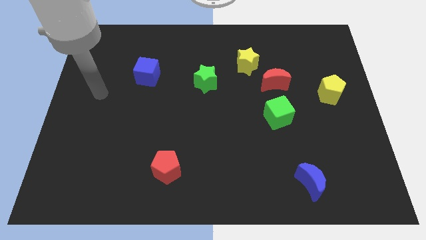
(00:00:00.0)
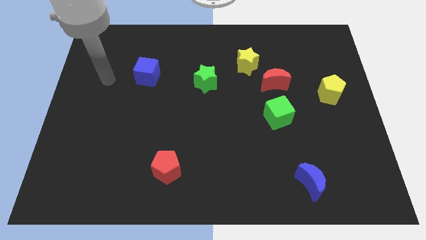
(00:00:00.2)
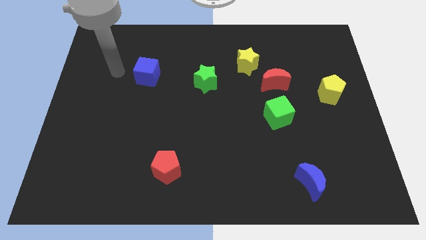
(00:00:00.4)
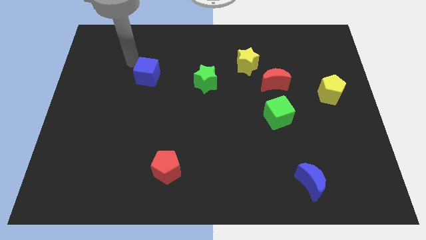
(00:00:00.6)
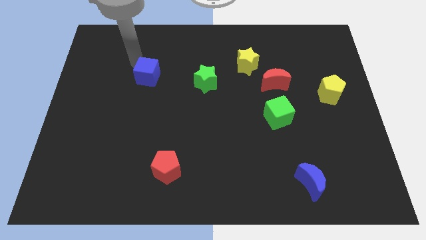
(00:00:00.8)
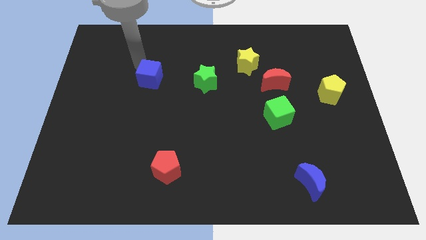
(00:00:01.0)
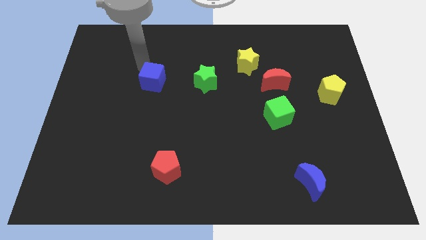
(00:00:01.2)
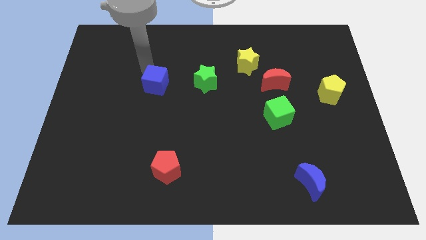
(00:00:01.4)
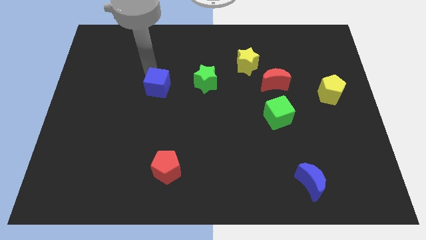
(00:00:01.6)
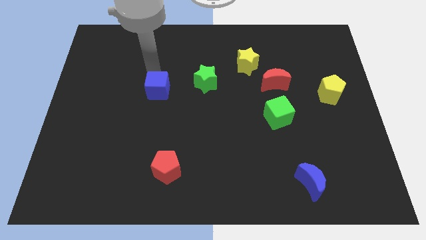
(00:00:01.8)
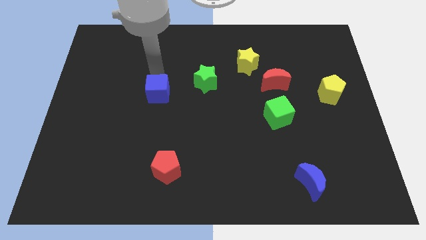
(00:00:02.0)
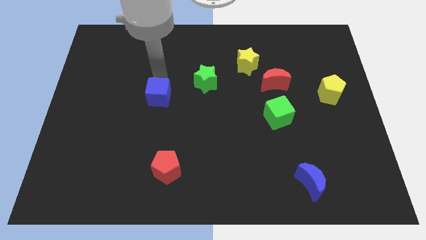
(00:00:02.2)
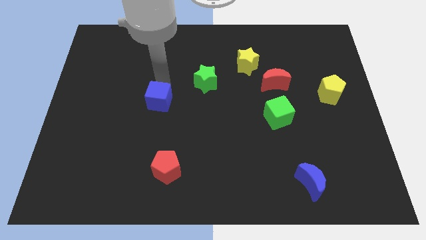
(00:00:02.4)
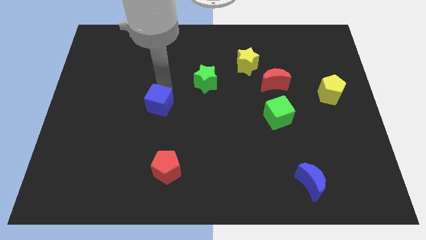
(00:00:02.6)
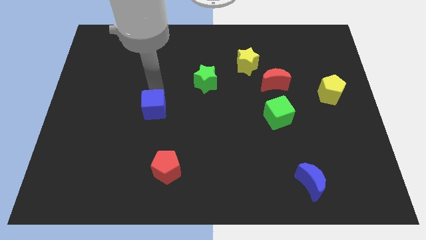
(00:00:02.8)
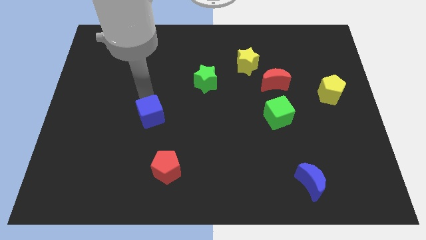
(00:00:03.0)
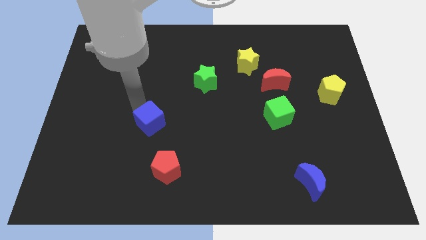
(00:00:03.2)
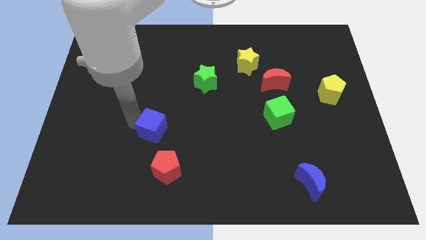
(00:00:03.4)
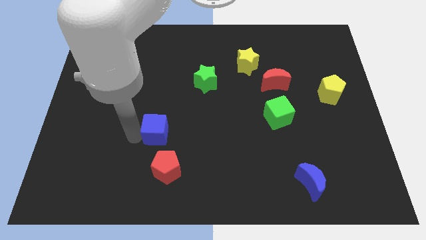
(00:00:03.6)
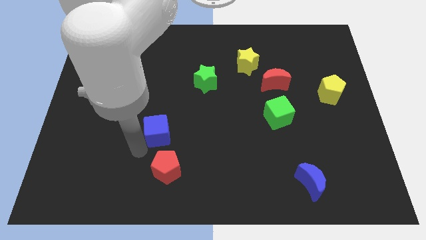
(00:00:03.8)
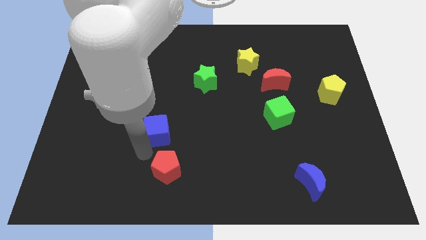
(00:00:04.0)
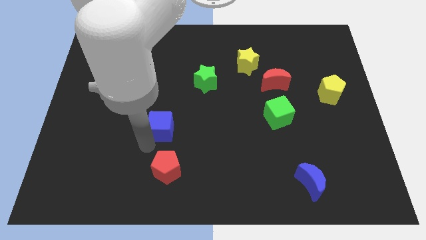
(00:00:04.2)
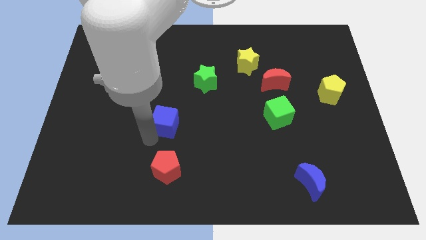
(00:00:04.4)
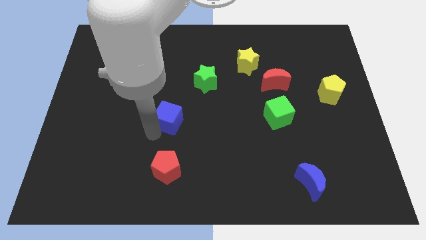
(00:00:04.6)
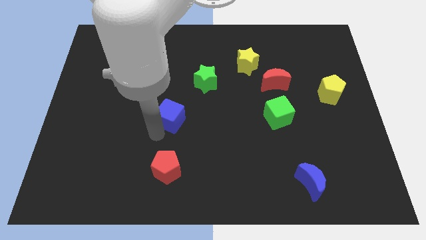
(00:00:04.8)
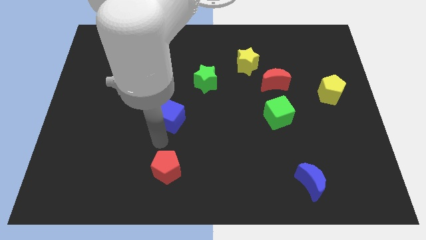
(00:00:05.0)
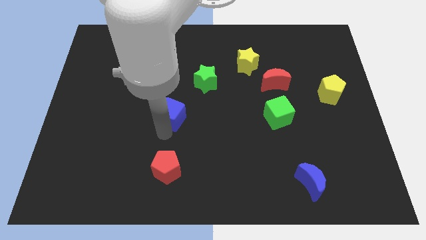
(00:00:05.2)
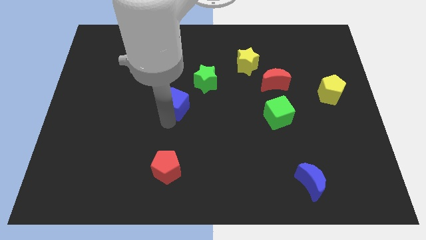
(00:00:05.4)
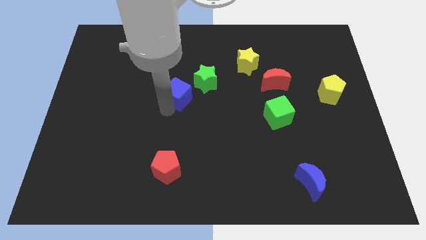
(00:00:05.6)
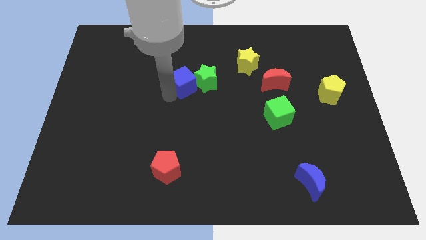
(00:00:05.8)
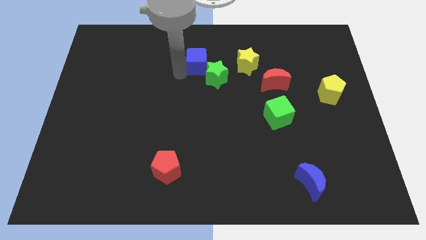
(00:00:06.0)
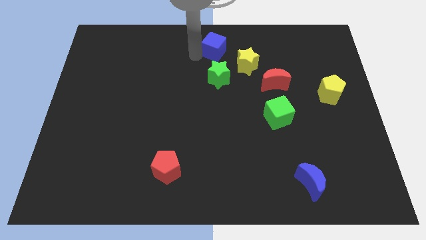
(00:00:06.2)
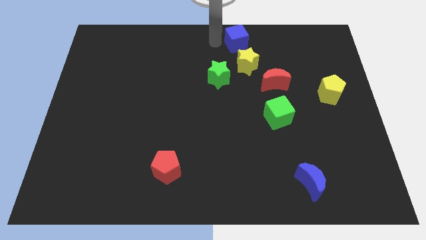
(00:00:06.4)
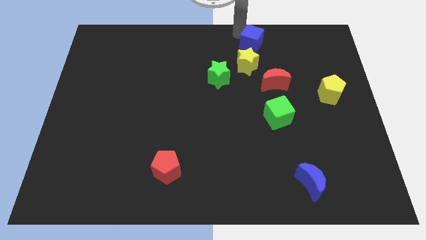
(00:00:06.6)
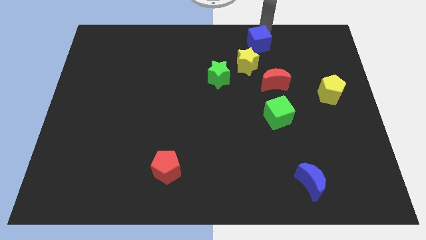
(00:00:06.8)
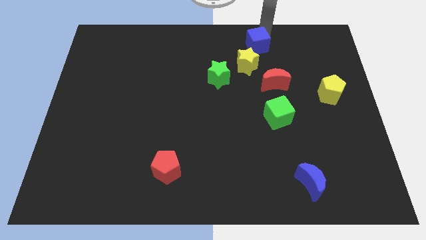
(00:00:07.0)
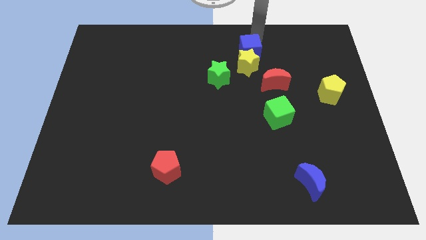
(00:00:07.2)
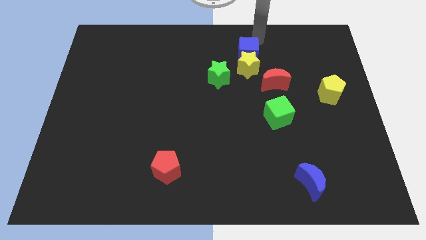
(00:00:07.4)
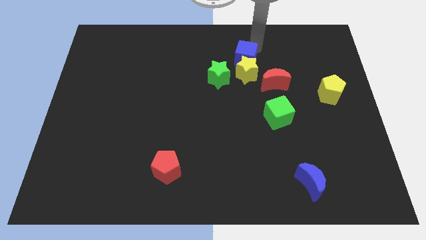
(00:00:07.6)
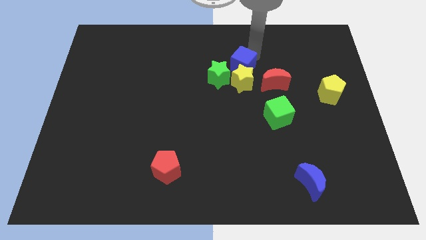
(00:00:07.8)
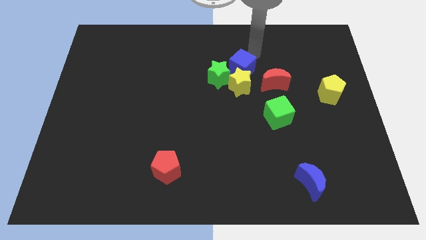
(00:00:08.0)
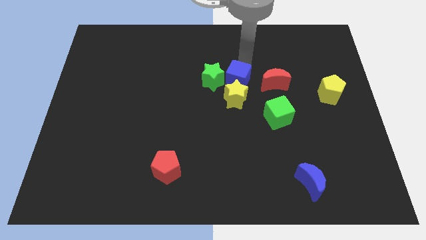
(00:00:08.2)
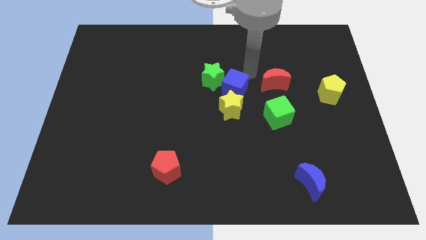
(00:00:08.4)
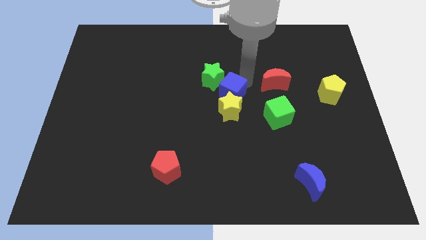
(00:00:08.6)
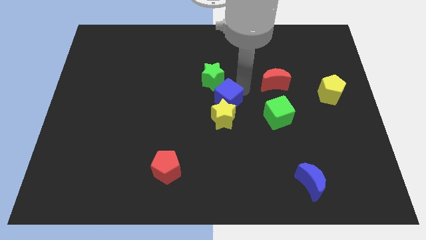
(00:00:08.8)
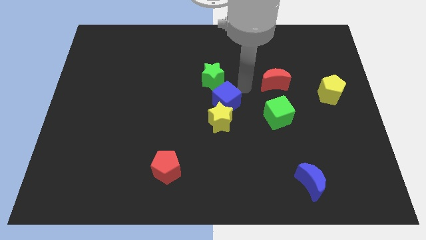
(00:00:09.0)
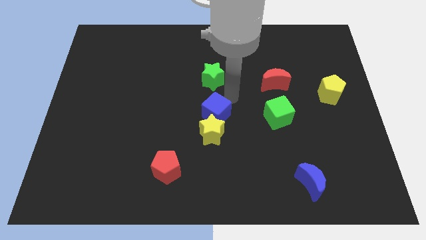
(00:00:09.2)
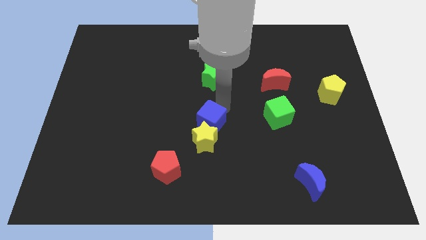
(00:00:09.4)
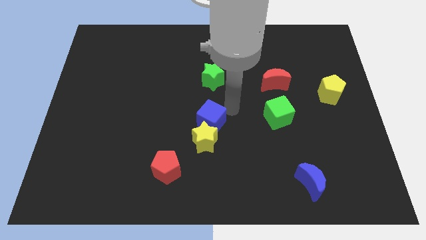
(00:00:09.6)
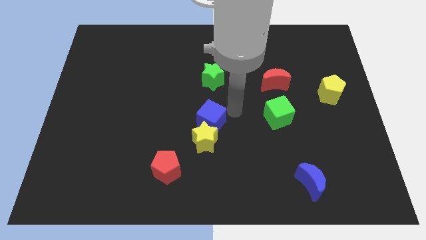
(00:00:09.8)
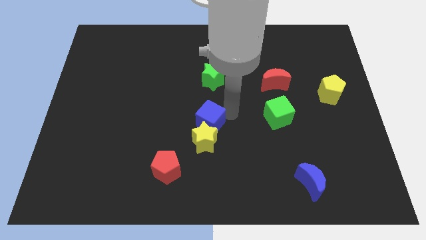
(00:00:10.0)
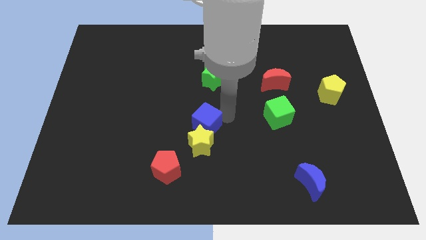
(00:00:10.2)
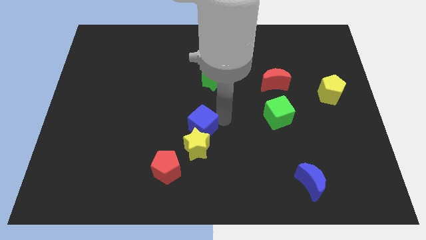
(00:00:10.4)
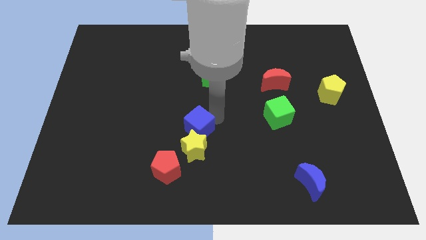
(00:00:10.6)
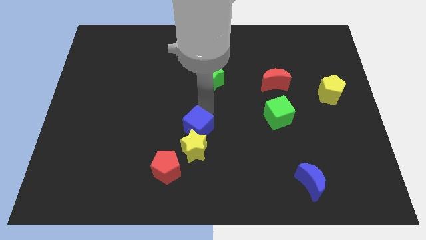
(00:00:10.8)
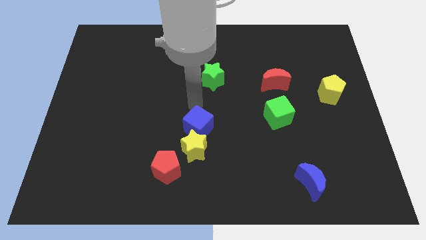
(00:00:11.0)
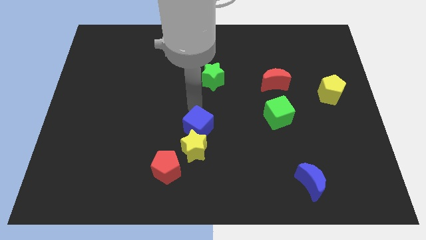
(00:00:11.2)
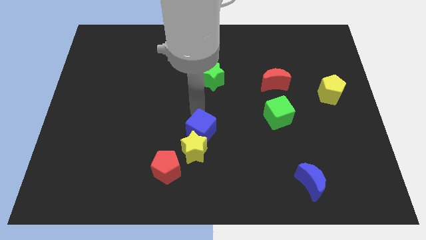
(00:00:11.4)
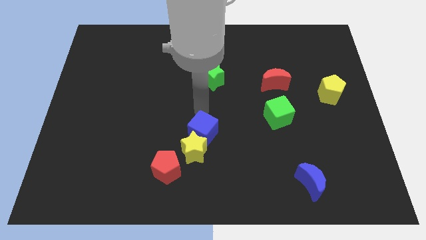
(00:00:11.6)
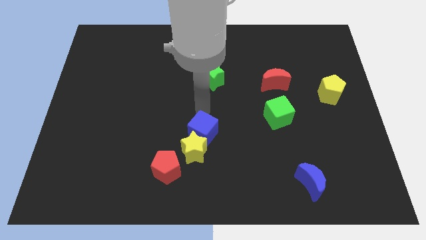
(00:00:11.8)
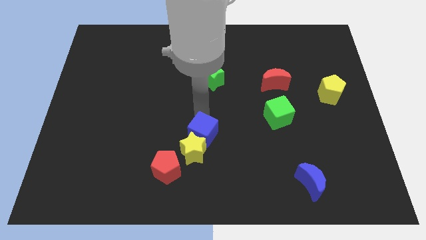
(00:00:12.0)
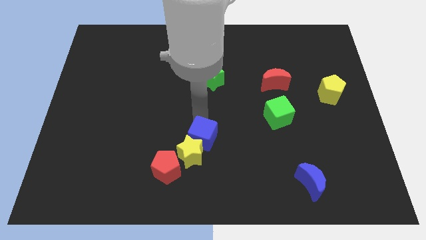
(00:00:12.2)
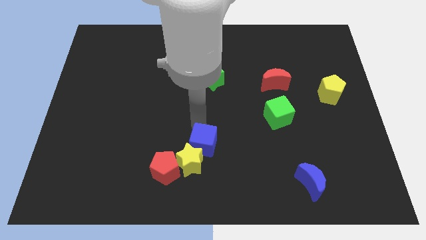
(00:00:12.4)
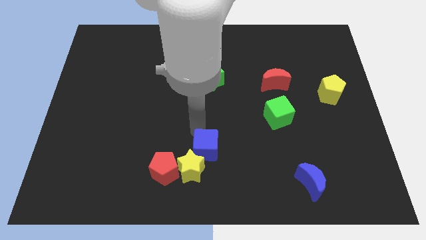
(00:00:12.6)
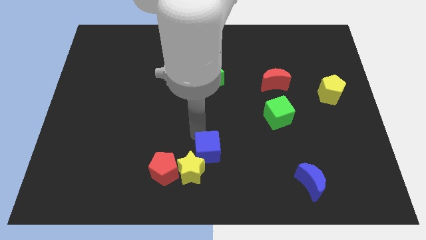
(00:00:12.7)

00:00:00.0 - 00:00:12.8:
push the blue cube just right of the red pentagon

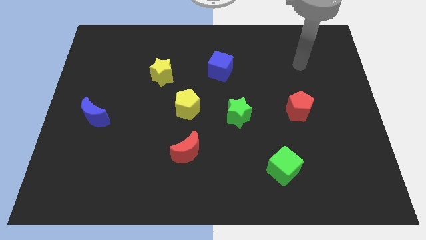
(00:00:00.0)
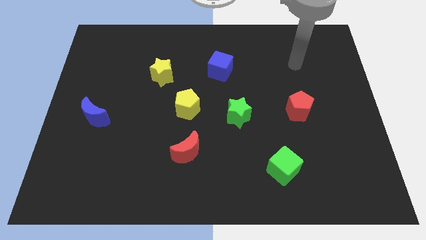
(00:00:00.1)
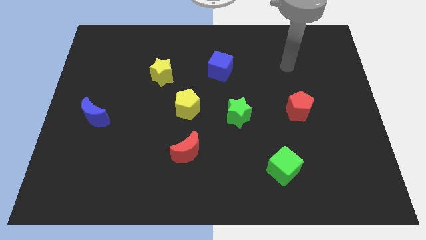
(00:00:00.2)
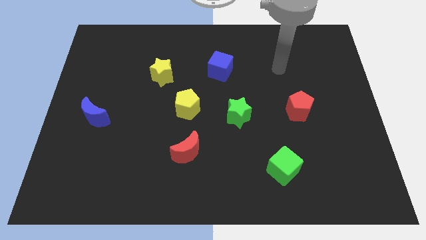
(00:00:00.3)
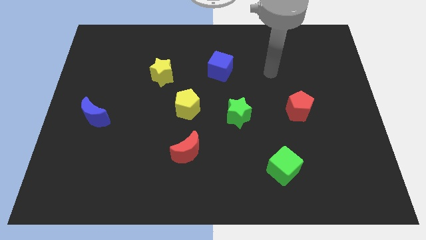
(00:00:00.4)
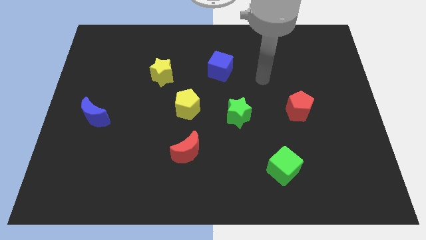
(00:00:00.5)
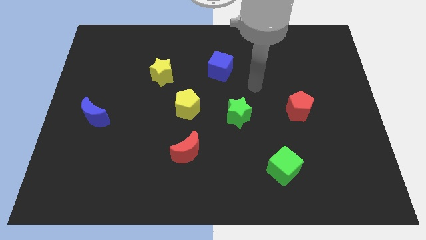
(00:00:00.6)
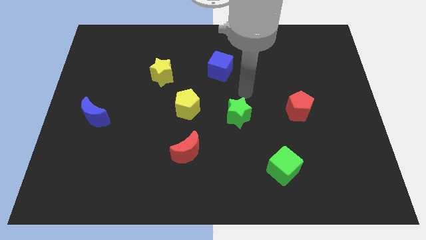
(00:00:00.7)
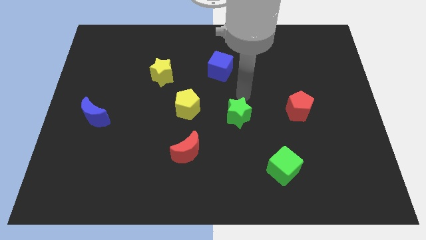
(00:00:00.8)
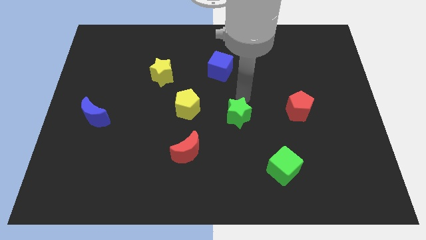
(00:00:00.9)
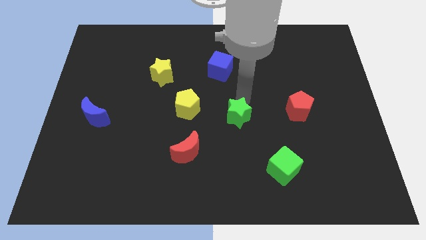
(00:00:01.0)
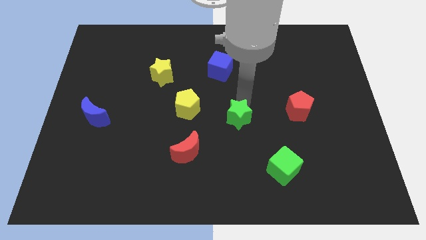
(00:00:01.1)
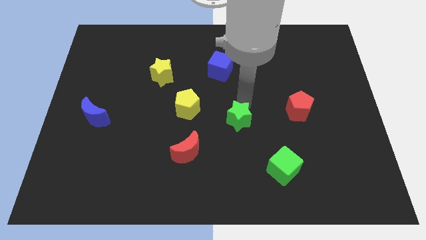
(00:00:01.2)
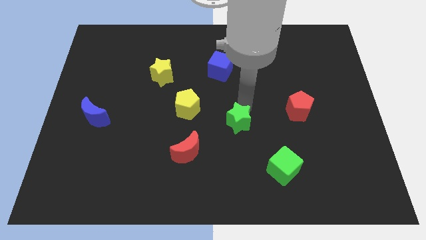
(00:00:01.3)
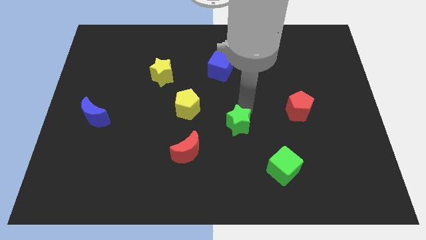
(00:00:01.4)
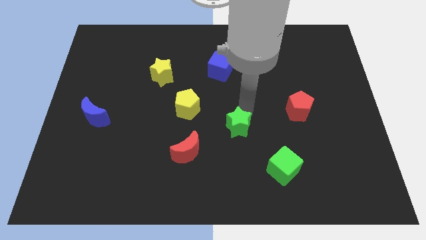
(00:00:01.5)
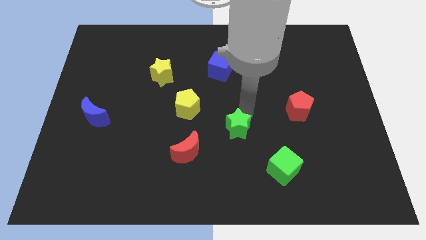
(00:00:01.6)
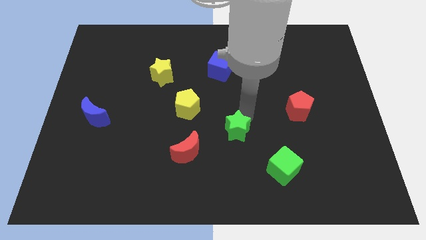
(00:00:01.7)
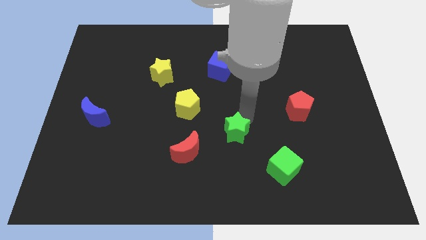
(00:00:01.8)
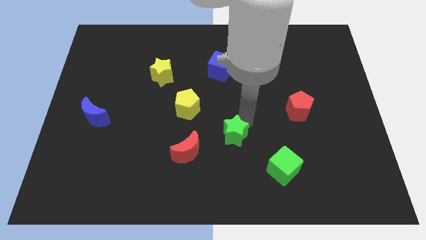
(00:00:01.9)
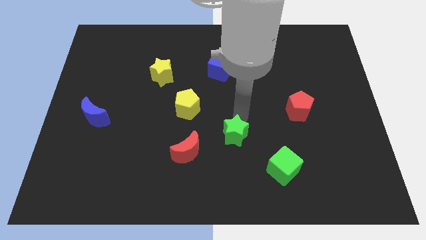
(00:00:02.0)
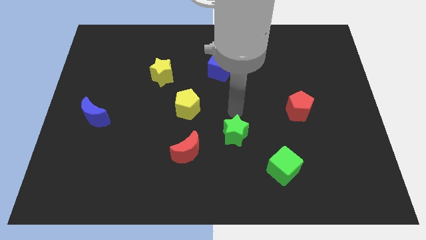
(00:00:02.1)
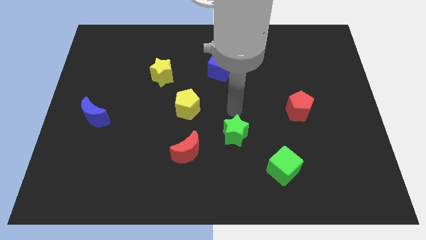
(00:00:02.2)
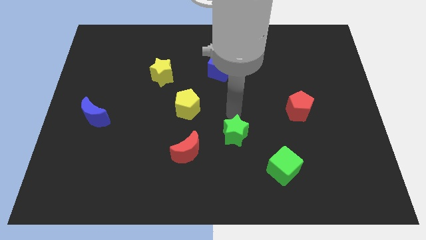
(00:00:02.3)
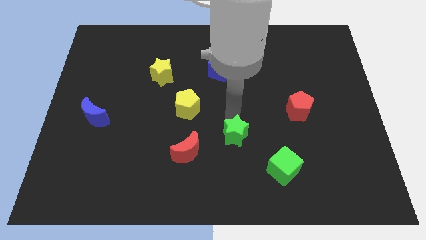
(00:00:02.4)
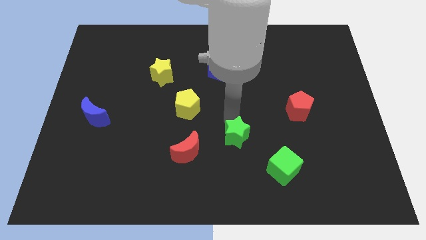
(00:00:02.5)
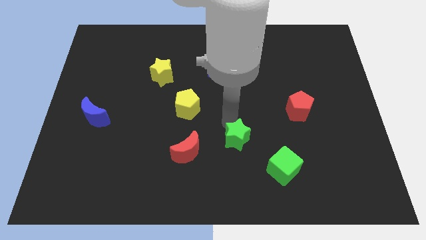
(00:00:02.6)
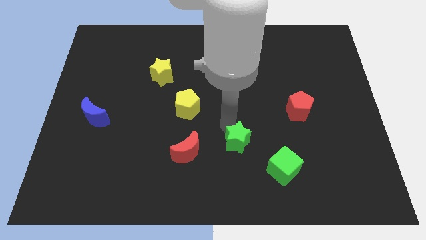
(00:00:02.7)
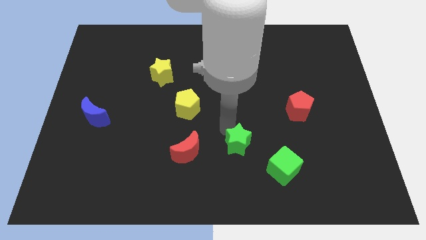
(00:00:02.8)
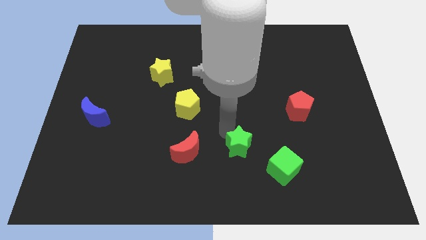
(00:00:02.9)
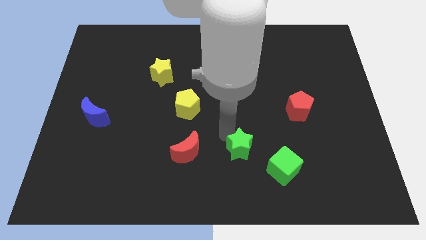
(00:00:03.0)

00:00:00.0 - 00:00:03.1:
push the green star to the left side of the green cube
